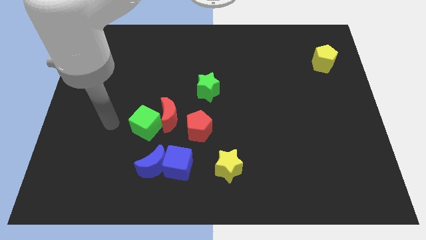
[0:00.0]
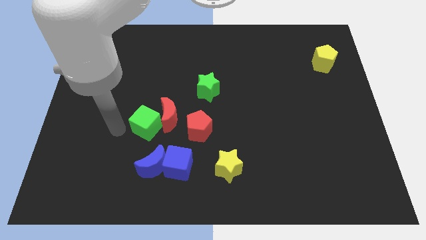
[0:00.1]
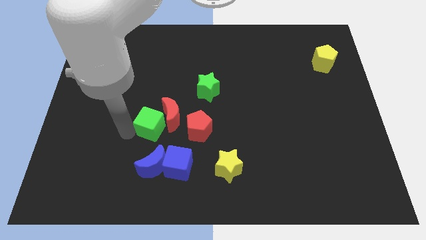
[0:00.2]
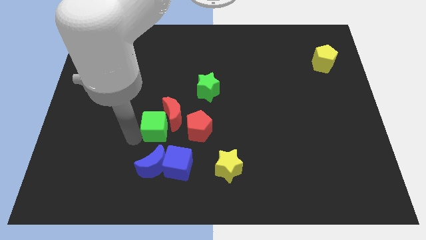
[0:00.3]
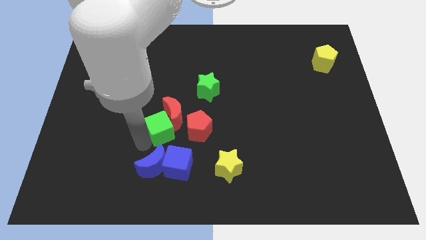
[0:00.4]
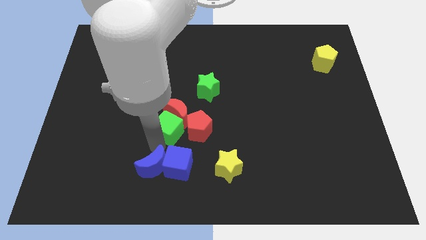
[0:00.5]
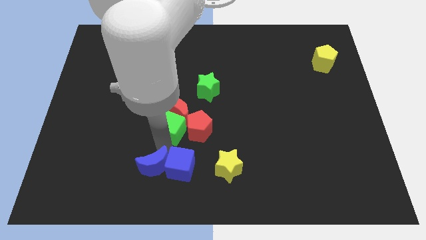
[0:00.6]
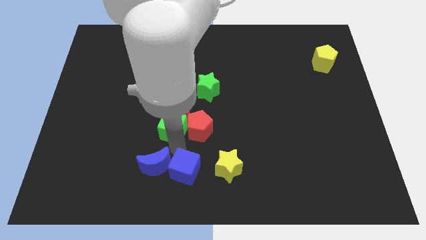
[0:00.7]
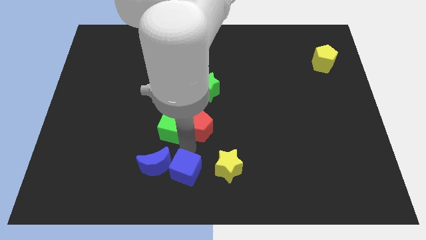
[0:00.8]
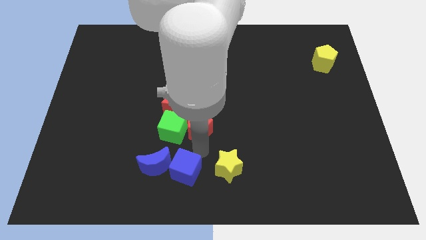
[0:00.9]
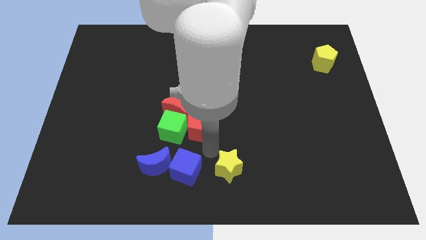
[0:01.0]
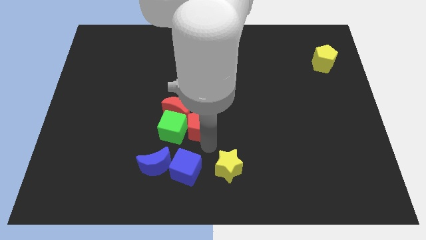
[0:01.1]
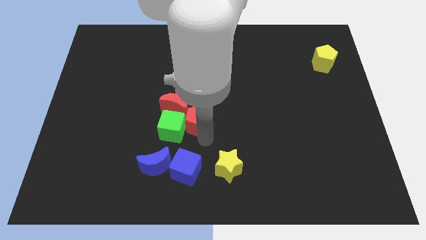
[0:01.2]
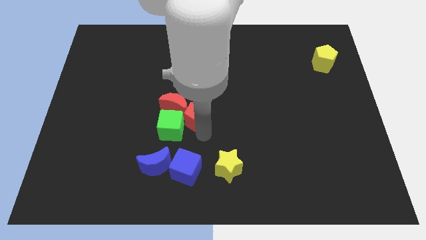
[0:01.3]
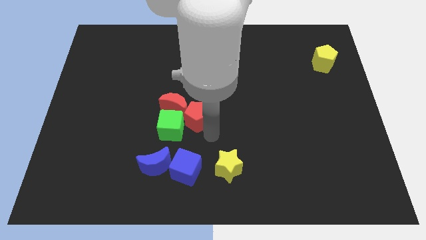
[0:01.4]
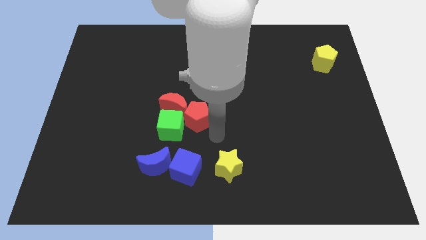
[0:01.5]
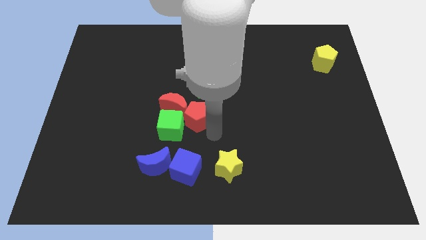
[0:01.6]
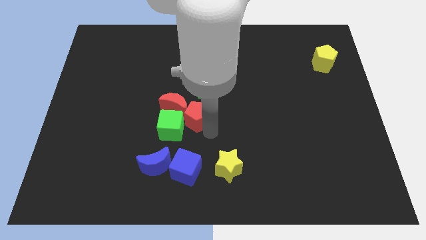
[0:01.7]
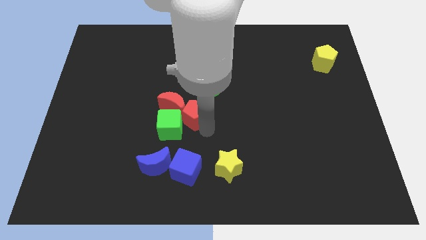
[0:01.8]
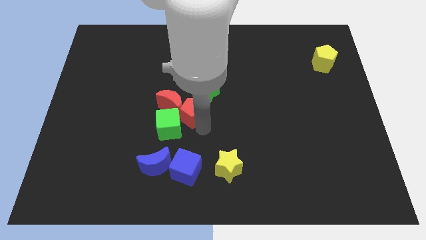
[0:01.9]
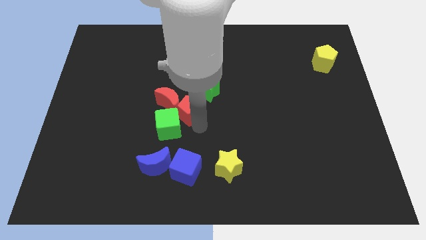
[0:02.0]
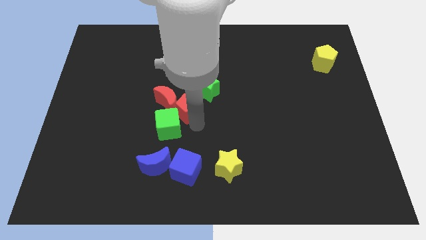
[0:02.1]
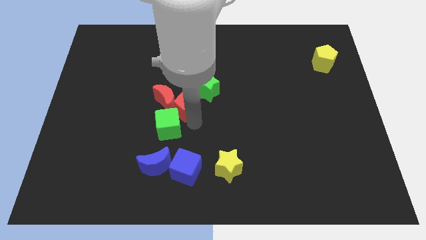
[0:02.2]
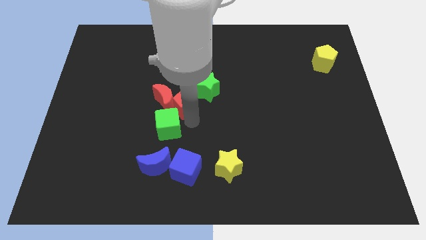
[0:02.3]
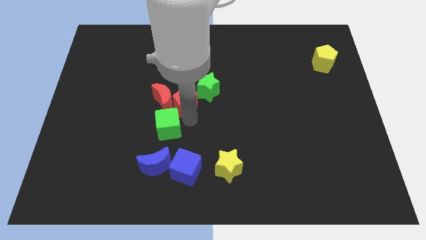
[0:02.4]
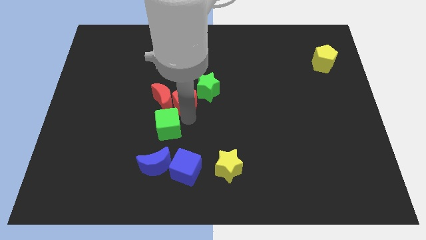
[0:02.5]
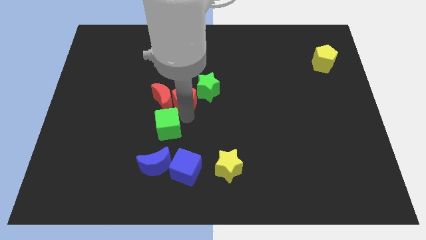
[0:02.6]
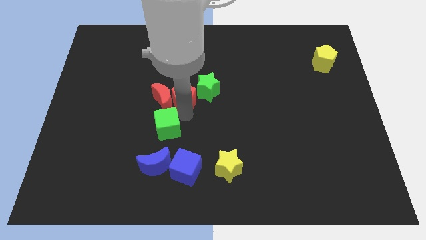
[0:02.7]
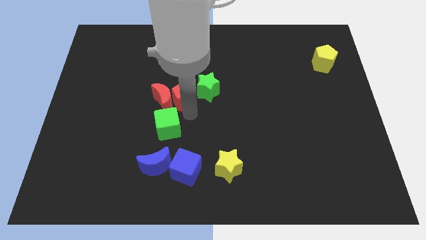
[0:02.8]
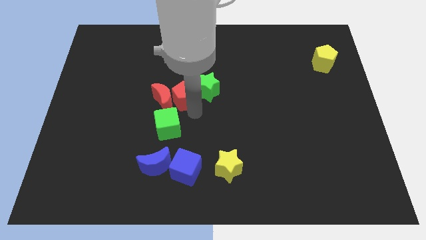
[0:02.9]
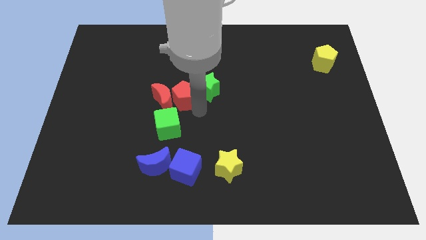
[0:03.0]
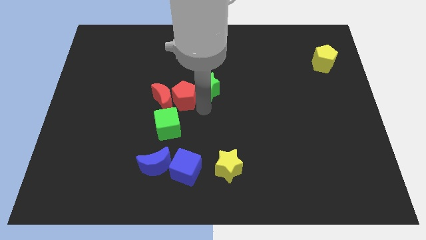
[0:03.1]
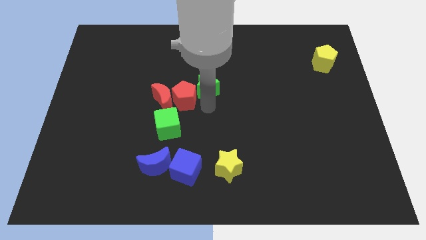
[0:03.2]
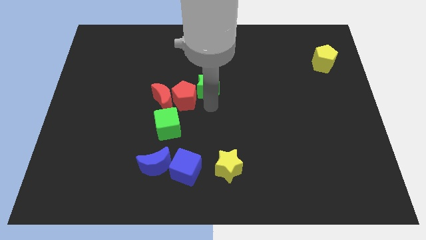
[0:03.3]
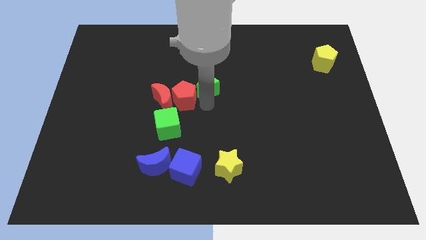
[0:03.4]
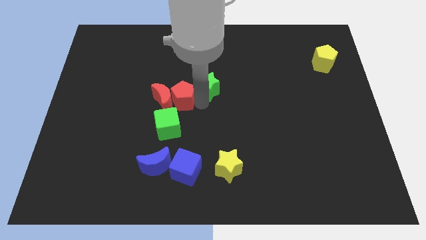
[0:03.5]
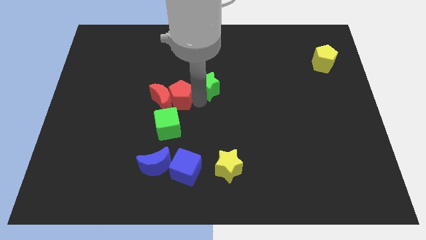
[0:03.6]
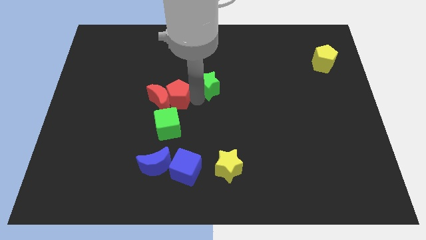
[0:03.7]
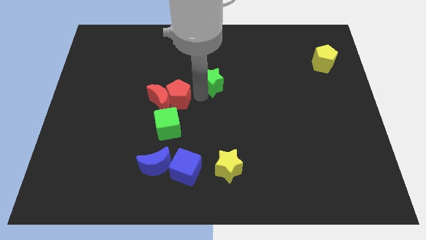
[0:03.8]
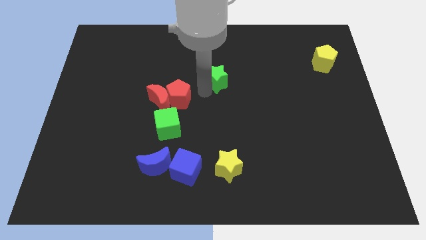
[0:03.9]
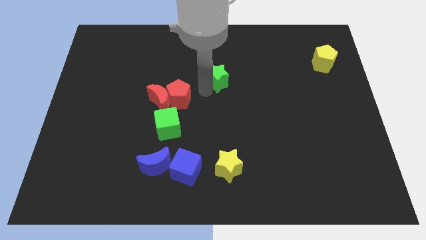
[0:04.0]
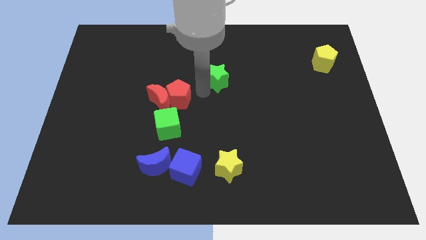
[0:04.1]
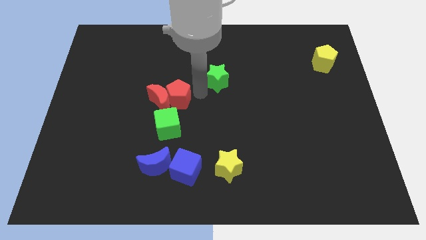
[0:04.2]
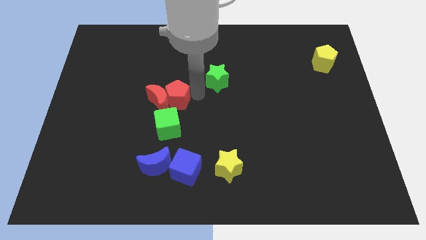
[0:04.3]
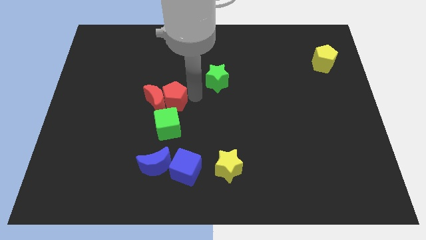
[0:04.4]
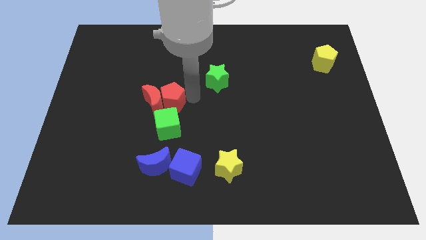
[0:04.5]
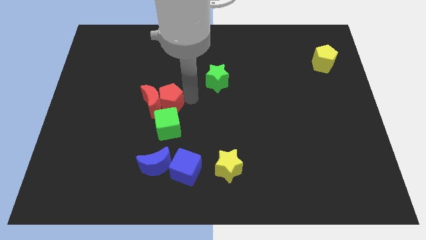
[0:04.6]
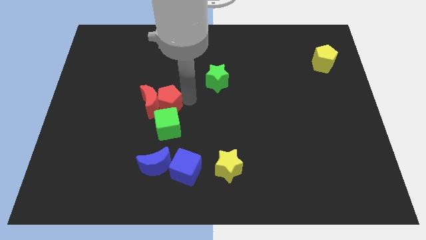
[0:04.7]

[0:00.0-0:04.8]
put the red pentagon to the top left of the green cube

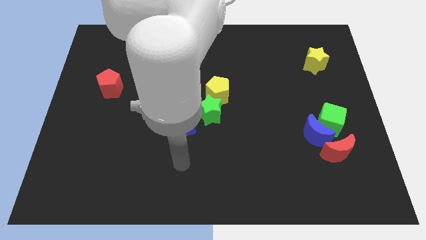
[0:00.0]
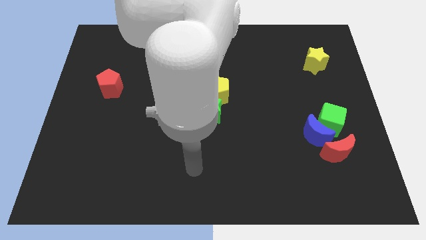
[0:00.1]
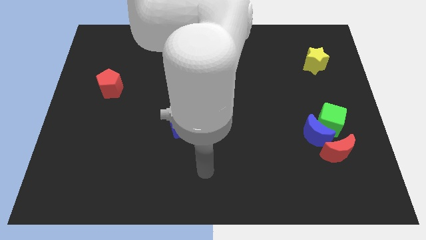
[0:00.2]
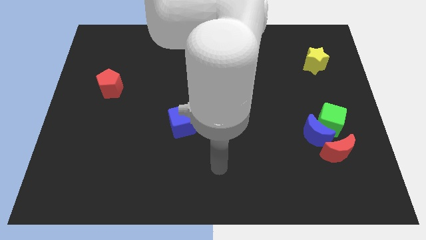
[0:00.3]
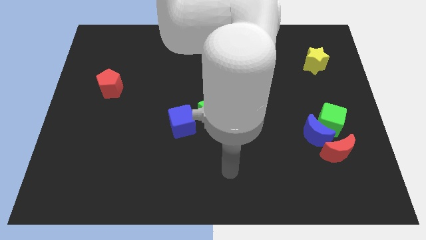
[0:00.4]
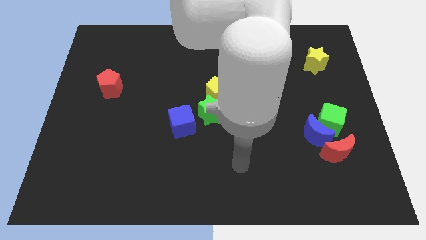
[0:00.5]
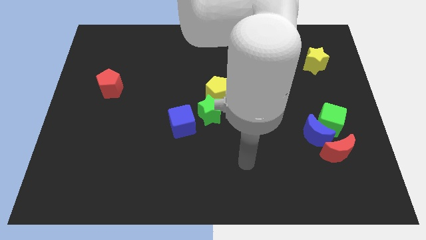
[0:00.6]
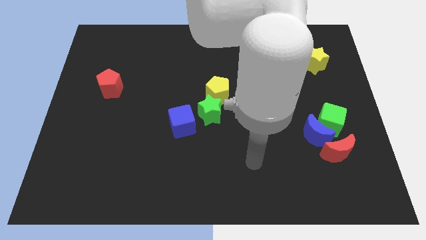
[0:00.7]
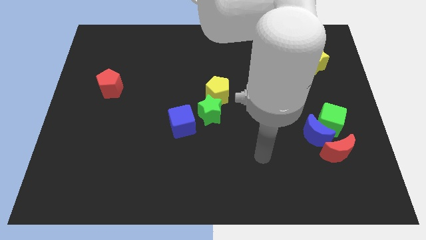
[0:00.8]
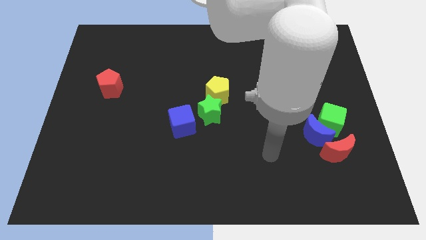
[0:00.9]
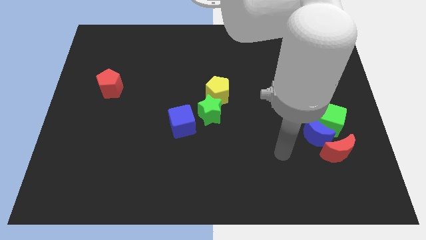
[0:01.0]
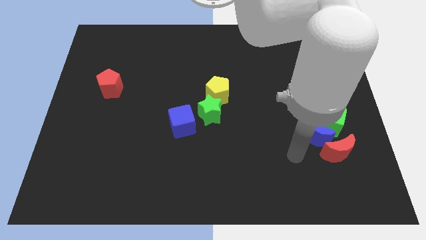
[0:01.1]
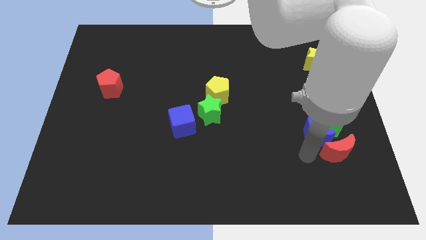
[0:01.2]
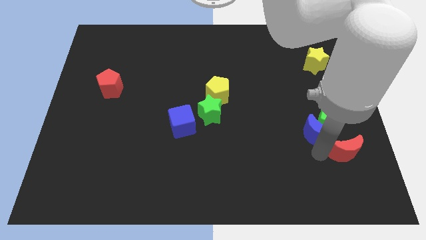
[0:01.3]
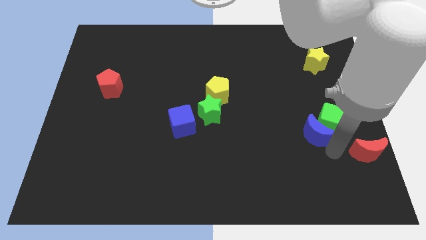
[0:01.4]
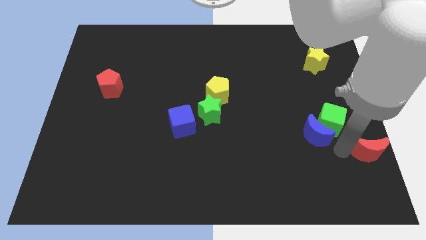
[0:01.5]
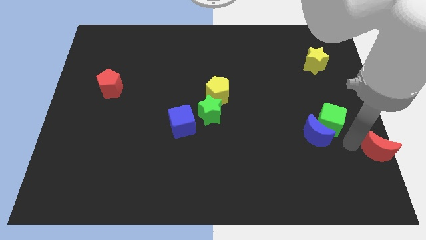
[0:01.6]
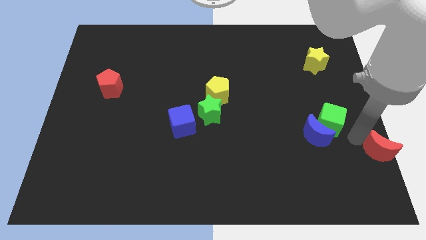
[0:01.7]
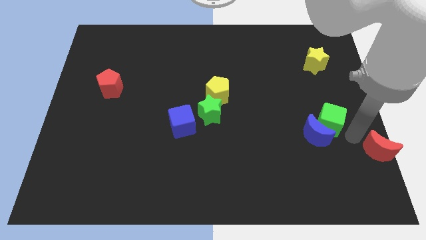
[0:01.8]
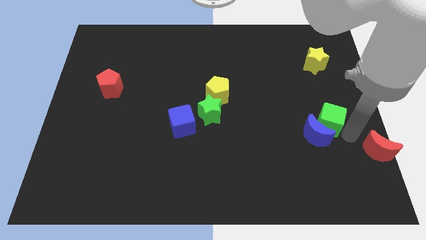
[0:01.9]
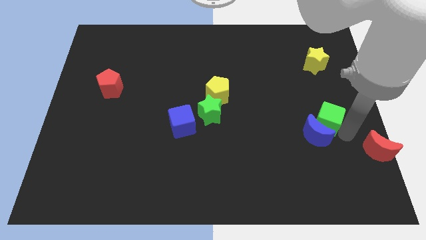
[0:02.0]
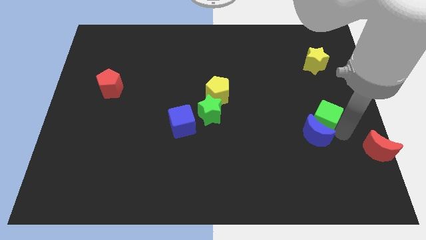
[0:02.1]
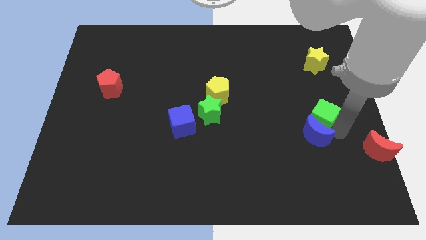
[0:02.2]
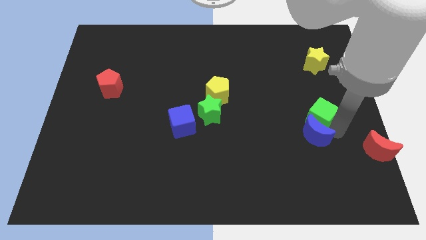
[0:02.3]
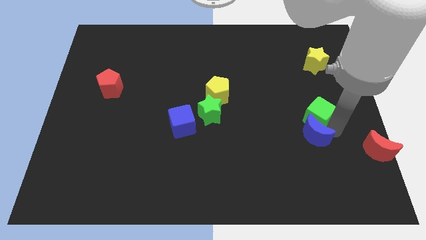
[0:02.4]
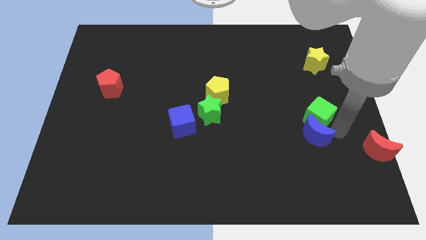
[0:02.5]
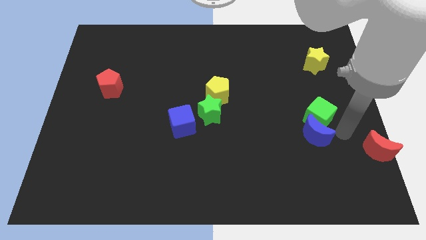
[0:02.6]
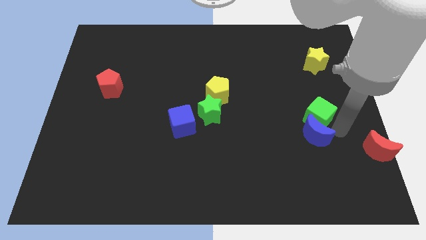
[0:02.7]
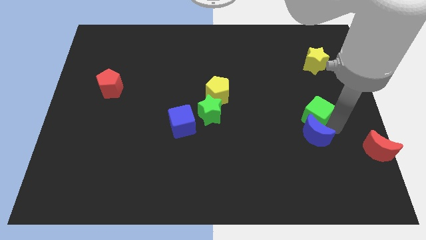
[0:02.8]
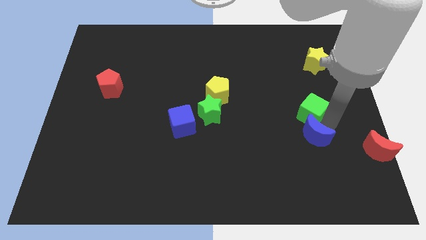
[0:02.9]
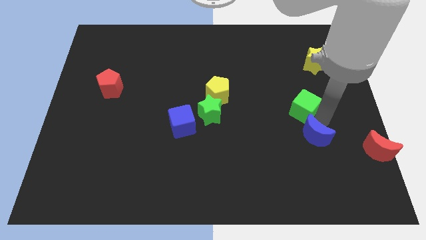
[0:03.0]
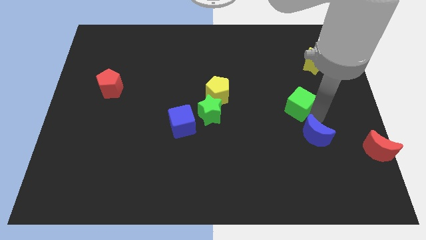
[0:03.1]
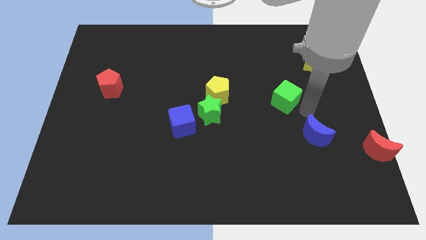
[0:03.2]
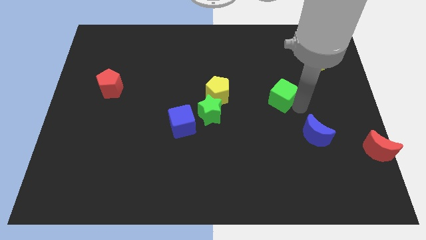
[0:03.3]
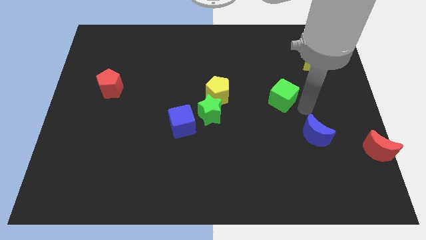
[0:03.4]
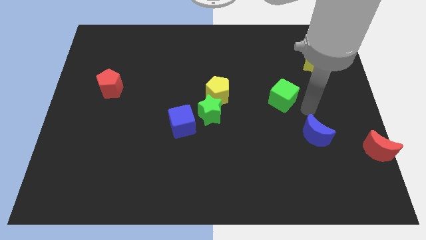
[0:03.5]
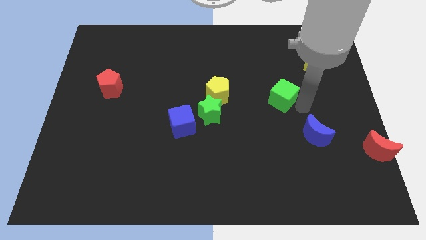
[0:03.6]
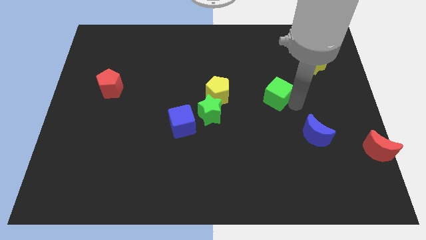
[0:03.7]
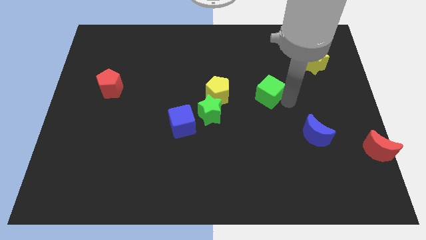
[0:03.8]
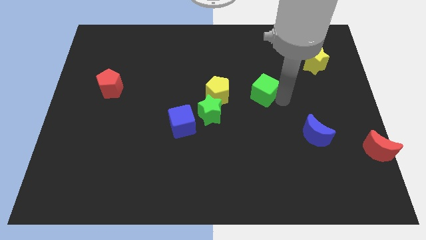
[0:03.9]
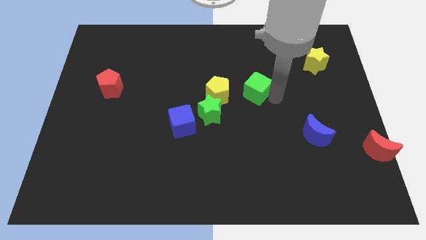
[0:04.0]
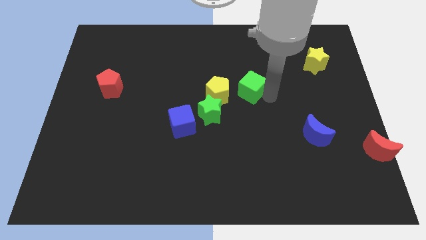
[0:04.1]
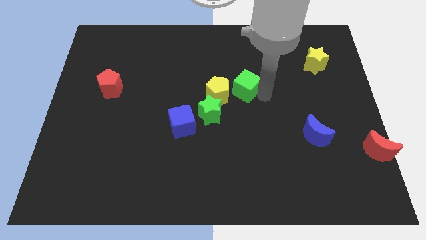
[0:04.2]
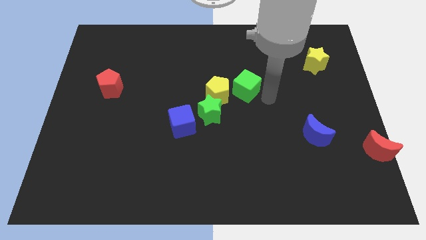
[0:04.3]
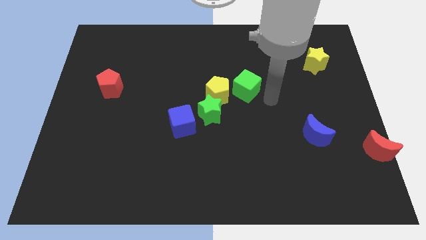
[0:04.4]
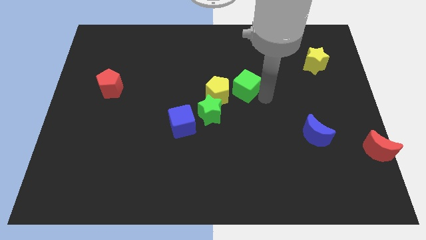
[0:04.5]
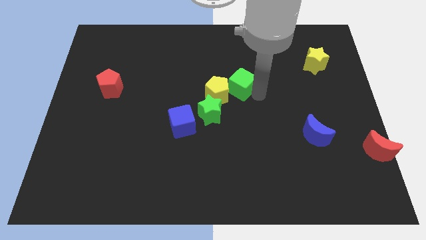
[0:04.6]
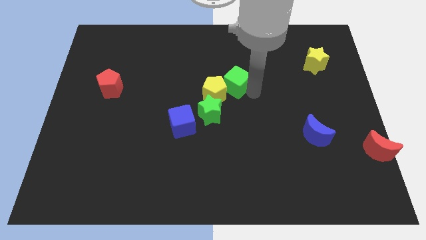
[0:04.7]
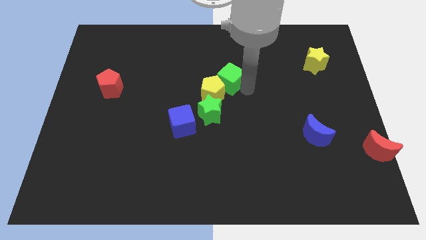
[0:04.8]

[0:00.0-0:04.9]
slide the green cube above the green star
